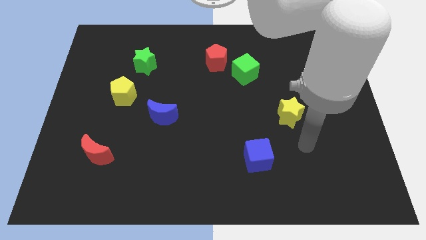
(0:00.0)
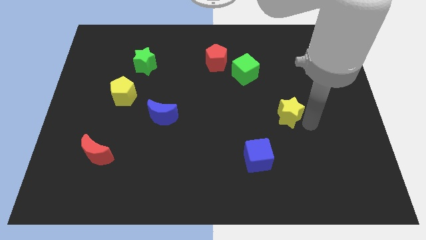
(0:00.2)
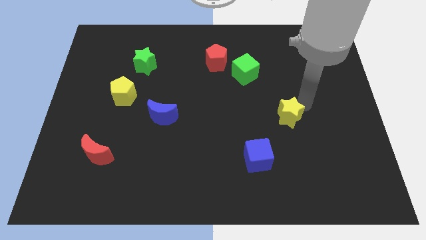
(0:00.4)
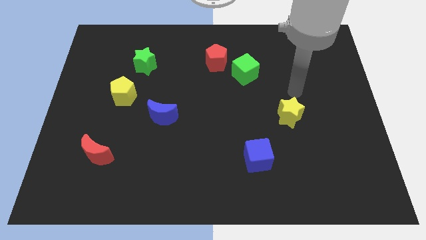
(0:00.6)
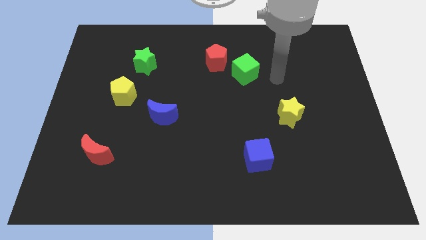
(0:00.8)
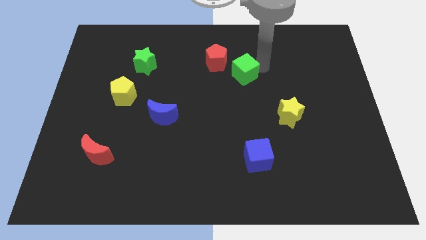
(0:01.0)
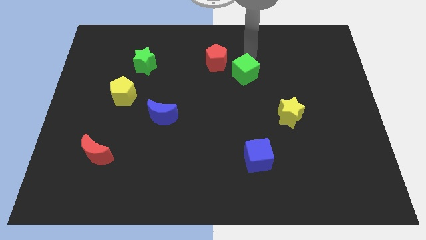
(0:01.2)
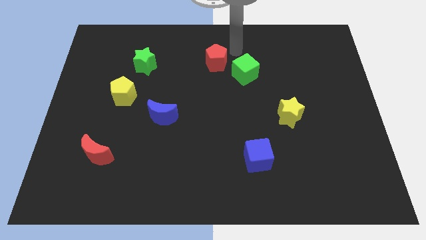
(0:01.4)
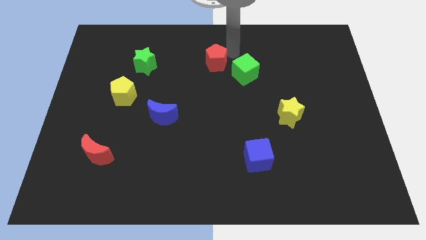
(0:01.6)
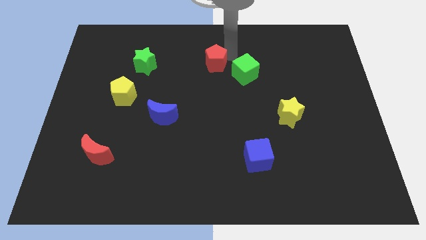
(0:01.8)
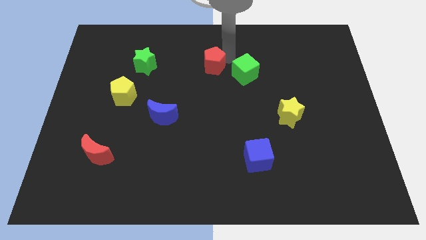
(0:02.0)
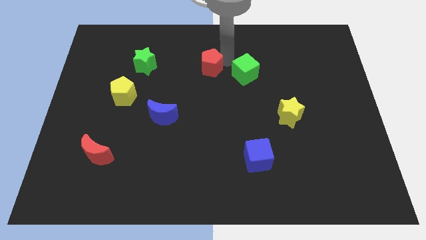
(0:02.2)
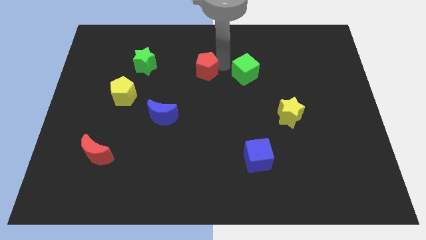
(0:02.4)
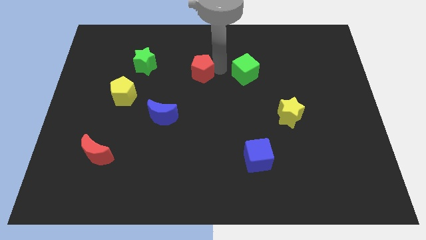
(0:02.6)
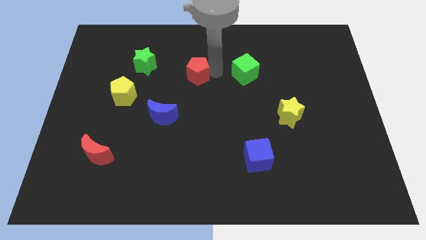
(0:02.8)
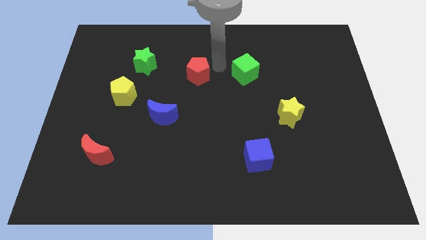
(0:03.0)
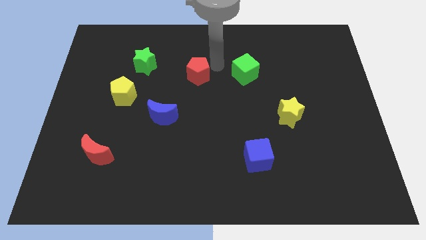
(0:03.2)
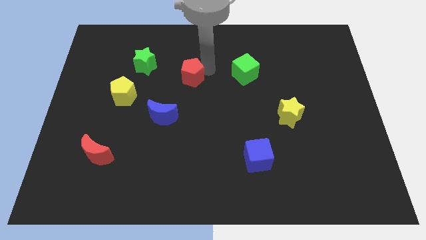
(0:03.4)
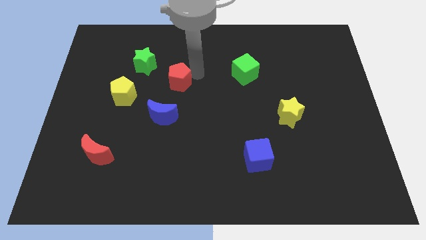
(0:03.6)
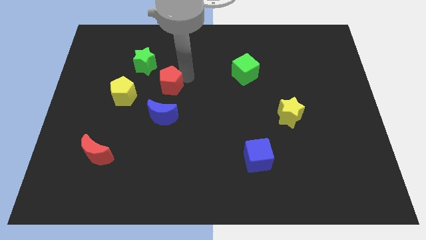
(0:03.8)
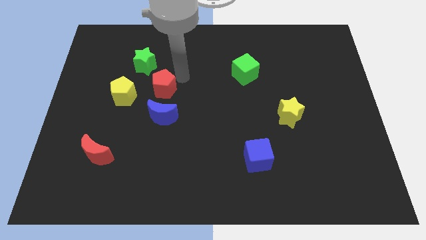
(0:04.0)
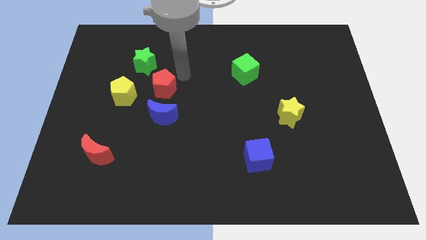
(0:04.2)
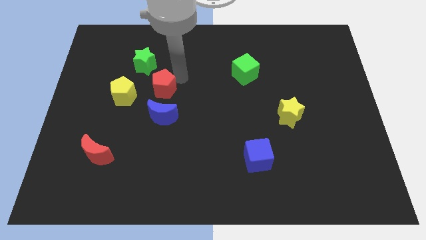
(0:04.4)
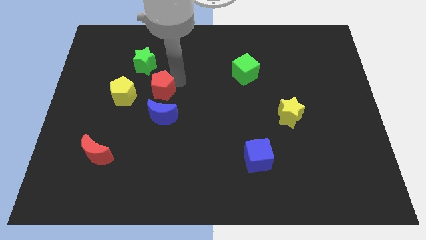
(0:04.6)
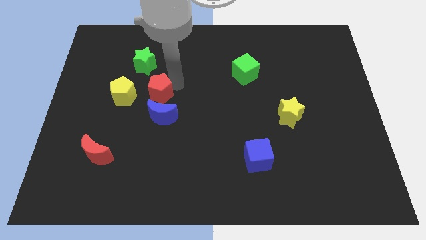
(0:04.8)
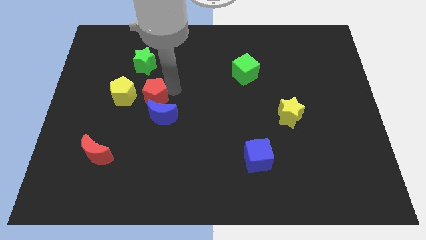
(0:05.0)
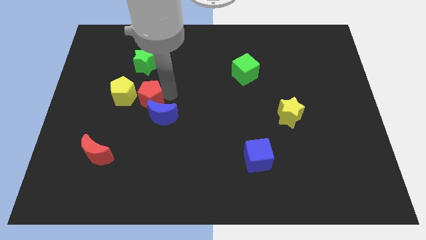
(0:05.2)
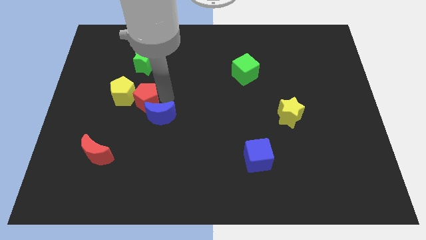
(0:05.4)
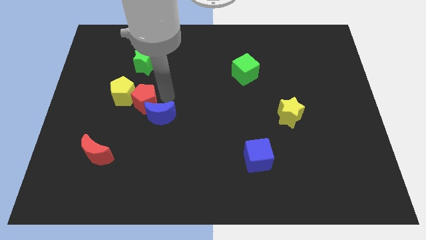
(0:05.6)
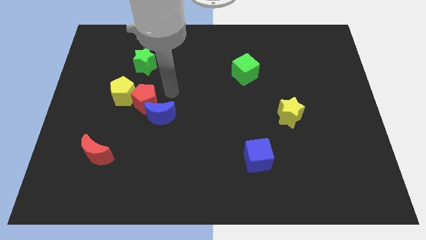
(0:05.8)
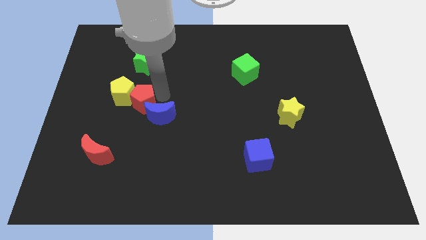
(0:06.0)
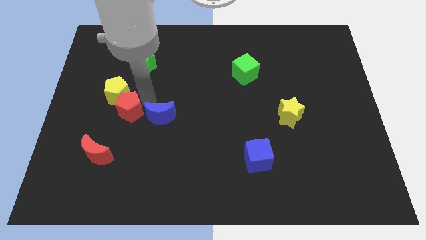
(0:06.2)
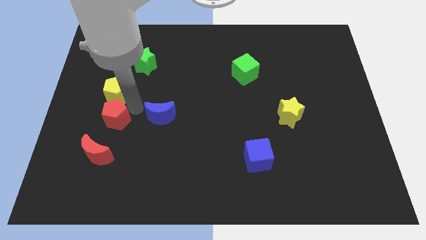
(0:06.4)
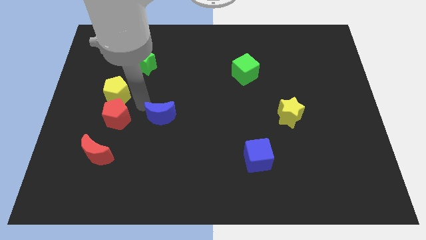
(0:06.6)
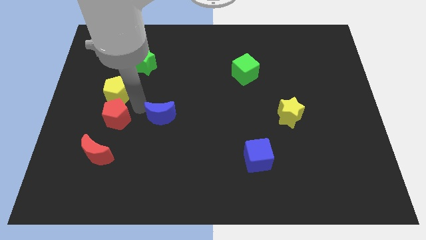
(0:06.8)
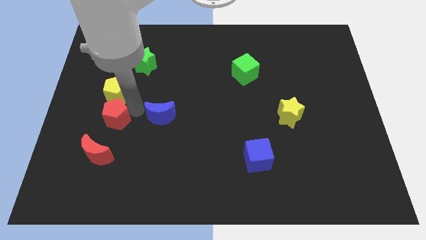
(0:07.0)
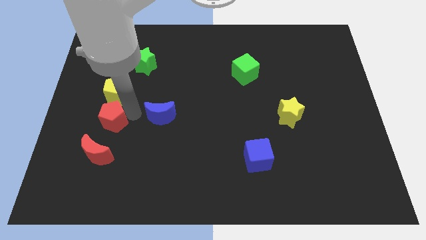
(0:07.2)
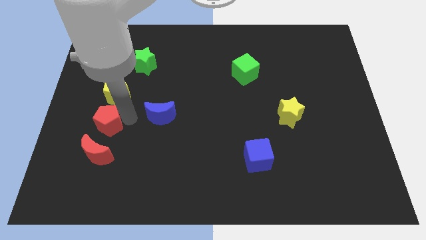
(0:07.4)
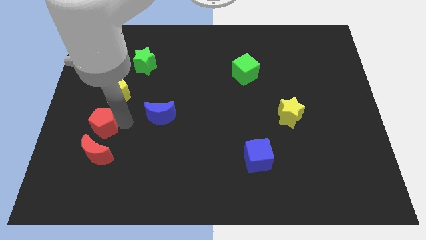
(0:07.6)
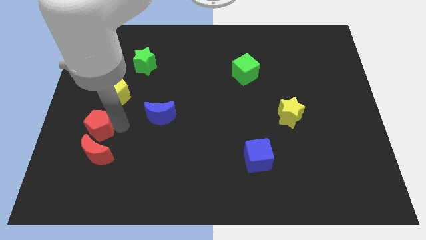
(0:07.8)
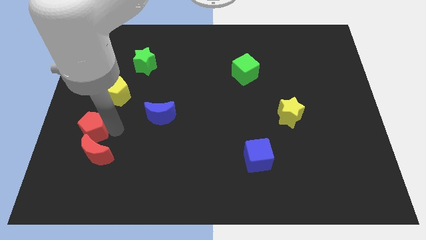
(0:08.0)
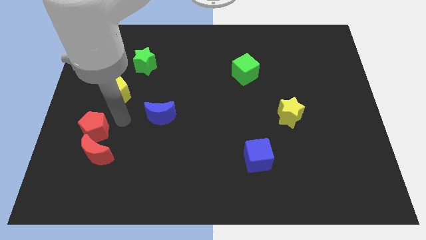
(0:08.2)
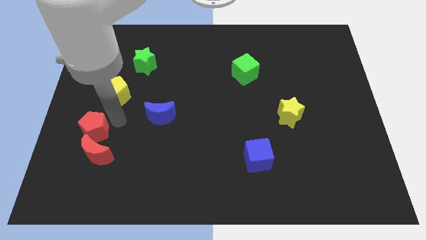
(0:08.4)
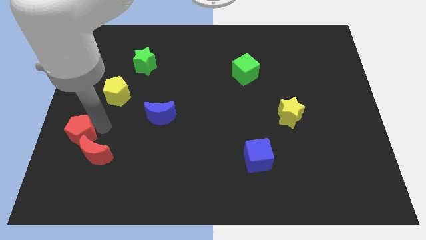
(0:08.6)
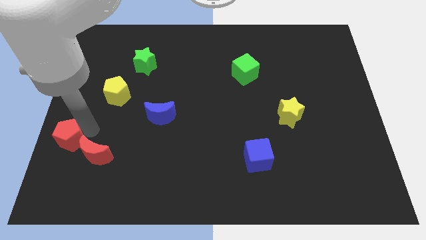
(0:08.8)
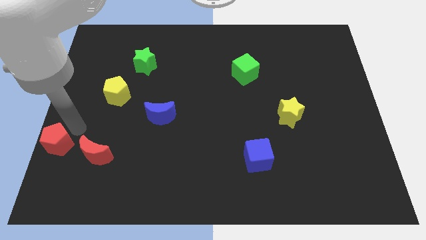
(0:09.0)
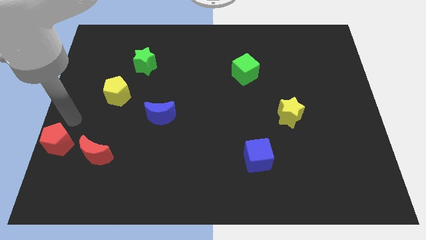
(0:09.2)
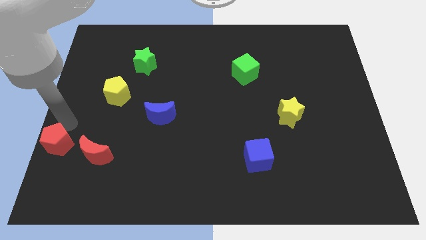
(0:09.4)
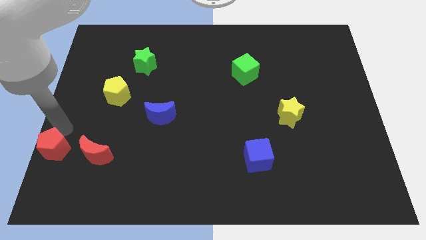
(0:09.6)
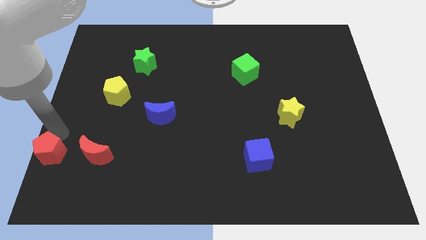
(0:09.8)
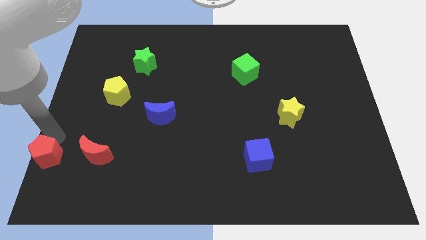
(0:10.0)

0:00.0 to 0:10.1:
put the red pentagon to the bottom left corner

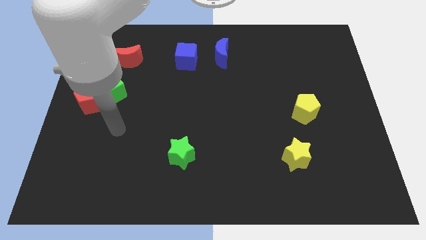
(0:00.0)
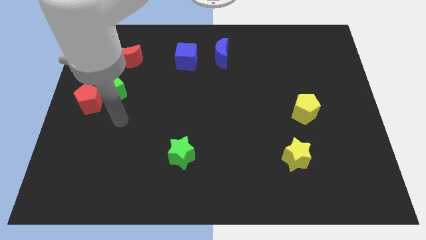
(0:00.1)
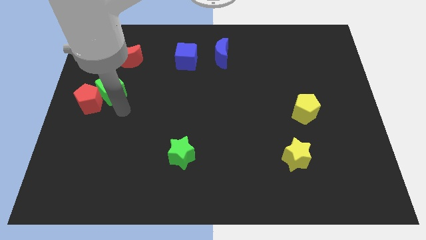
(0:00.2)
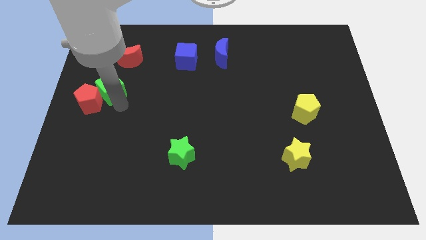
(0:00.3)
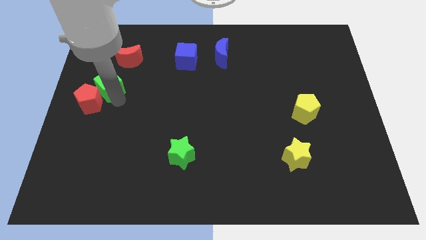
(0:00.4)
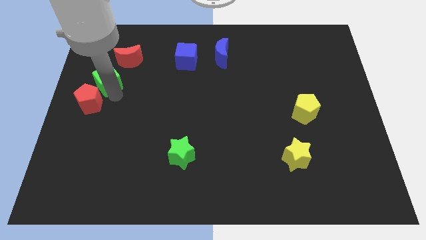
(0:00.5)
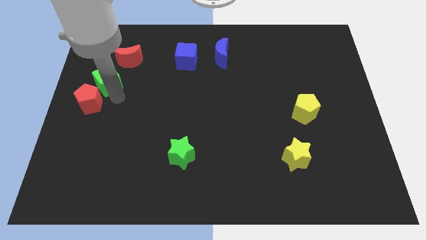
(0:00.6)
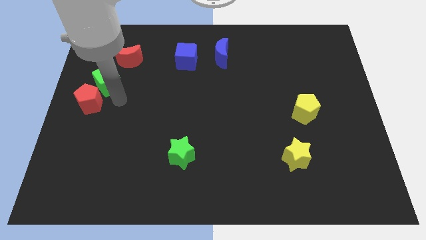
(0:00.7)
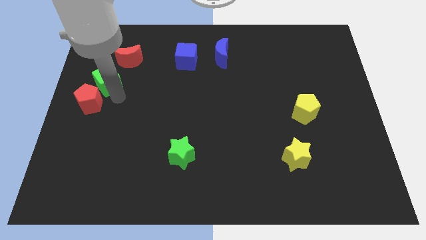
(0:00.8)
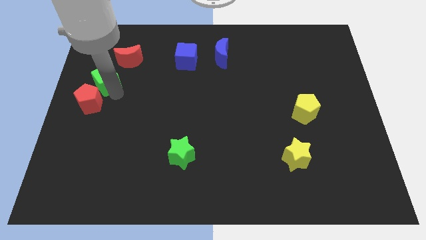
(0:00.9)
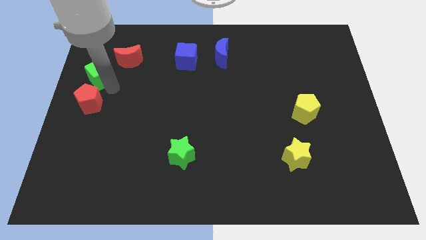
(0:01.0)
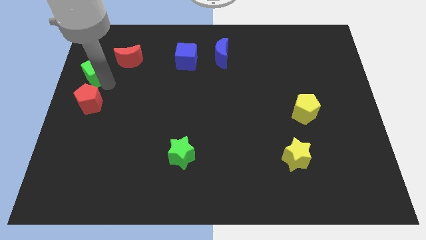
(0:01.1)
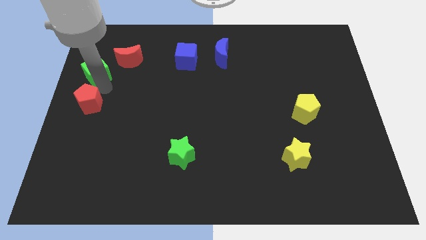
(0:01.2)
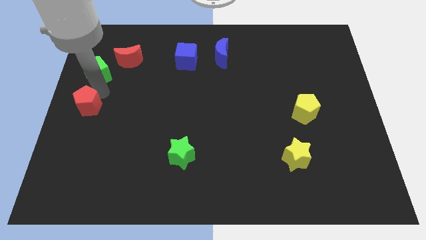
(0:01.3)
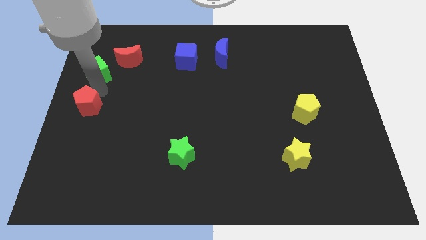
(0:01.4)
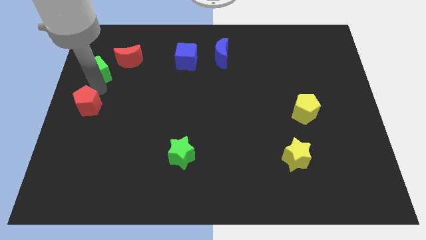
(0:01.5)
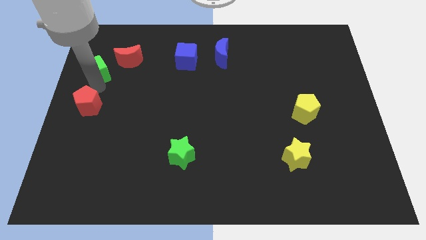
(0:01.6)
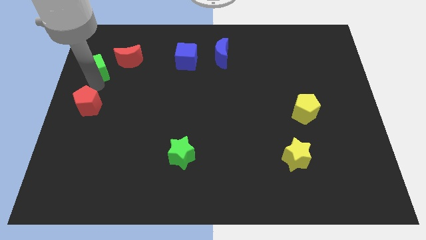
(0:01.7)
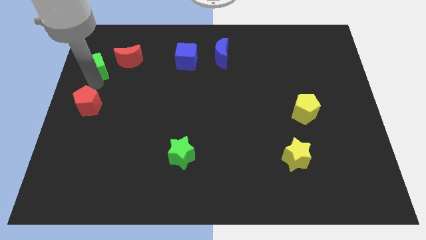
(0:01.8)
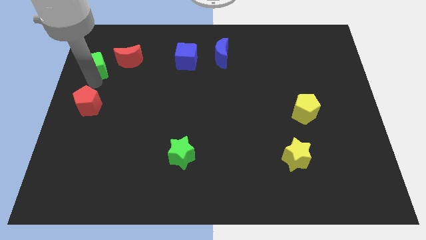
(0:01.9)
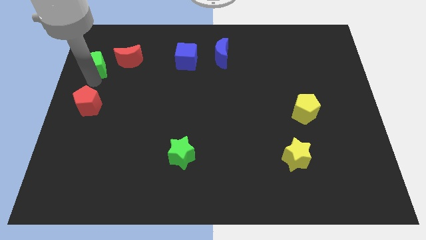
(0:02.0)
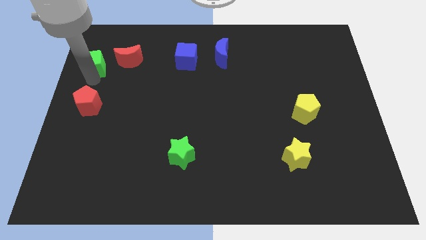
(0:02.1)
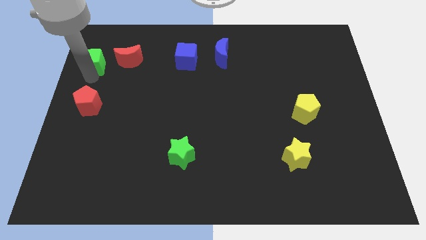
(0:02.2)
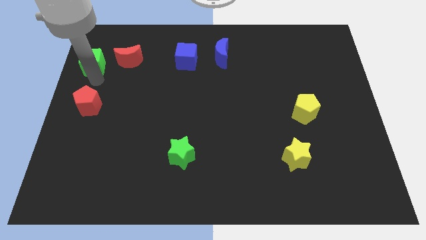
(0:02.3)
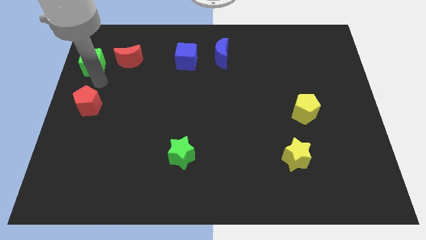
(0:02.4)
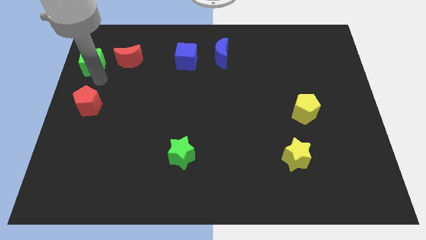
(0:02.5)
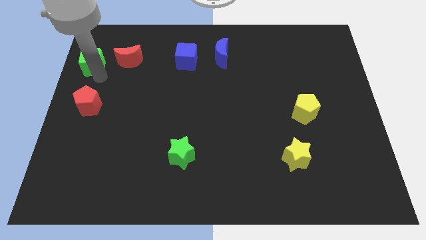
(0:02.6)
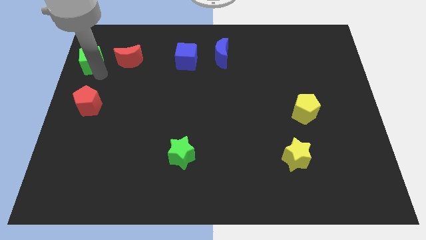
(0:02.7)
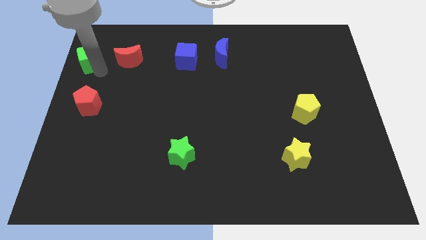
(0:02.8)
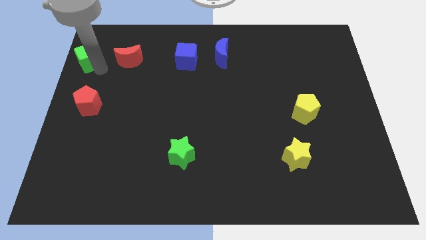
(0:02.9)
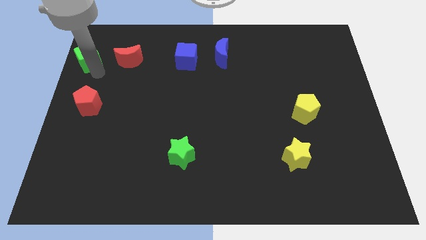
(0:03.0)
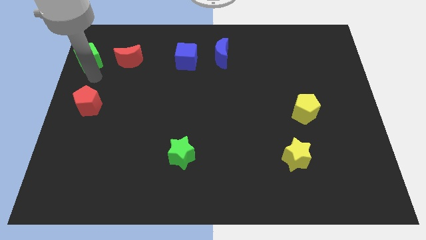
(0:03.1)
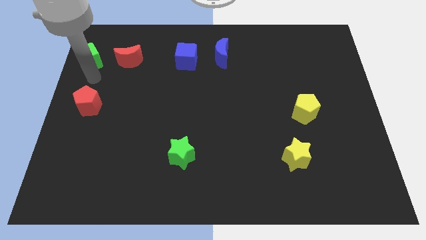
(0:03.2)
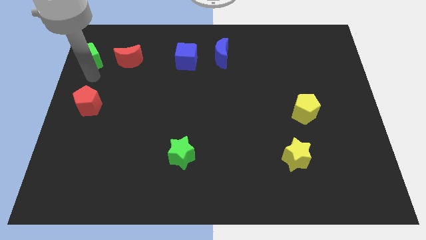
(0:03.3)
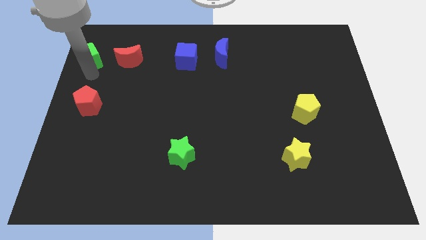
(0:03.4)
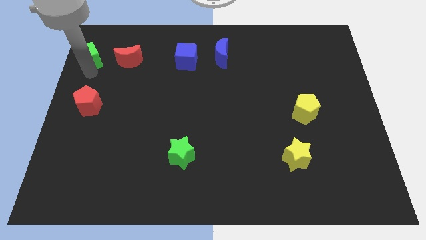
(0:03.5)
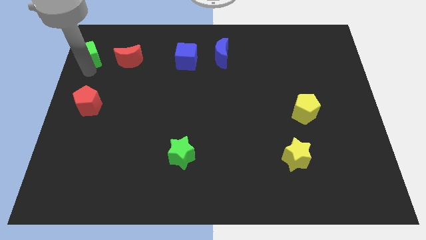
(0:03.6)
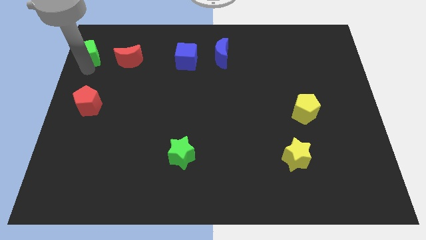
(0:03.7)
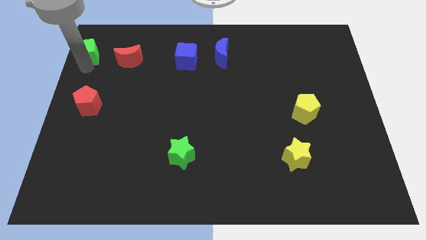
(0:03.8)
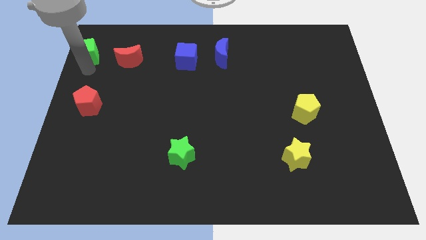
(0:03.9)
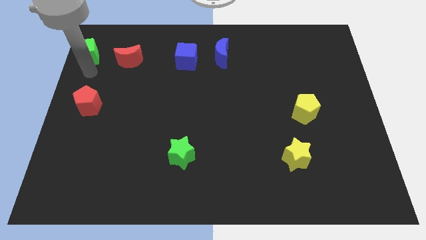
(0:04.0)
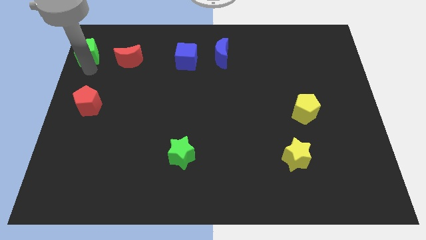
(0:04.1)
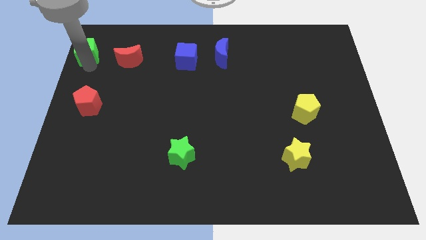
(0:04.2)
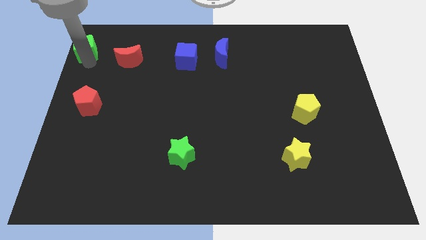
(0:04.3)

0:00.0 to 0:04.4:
put the green cube to the top left of the board
